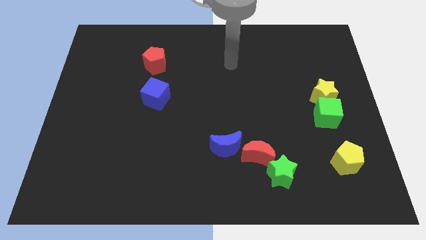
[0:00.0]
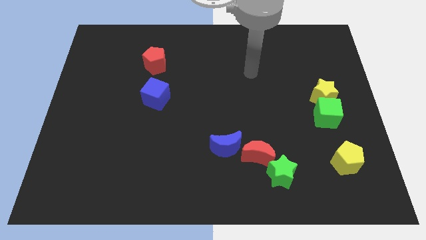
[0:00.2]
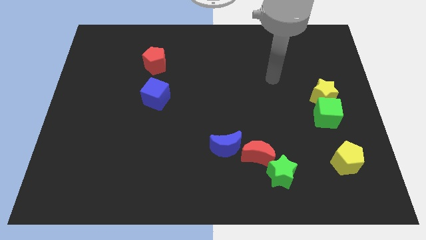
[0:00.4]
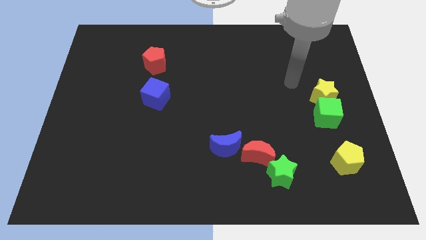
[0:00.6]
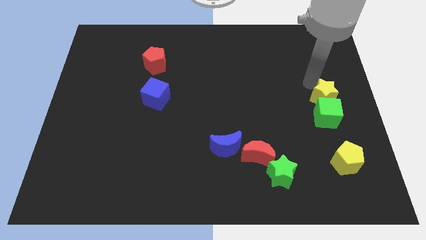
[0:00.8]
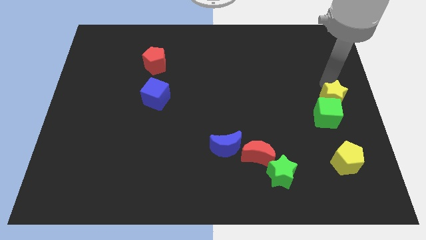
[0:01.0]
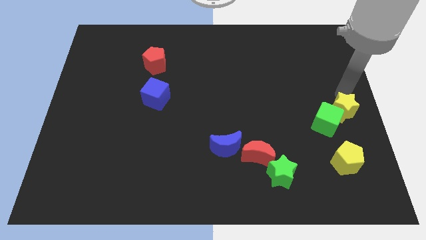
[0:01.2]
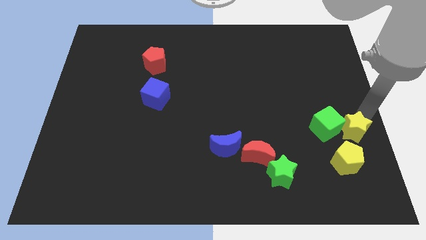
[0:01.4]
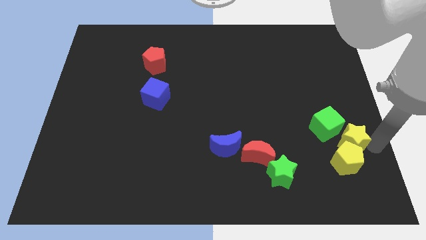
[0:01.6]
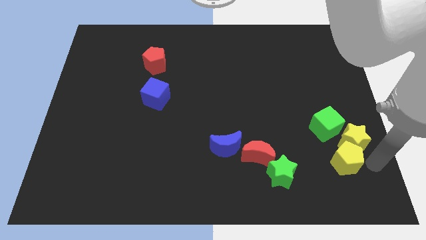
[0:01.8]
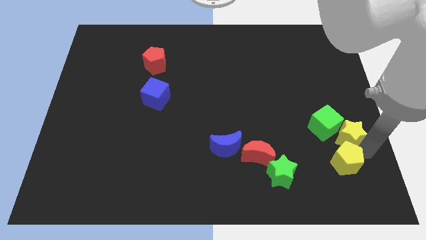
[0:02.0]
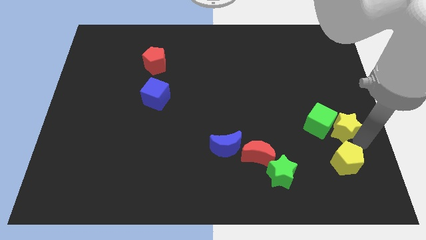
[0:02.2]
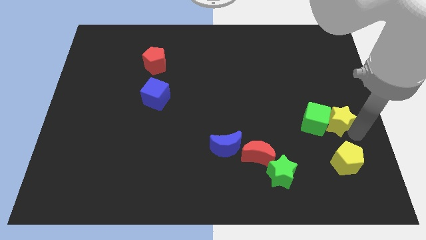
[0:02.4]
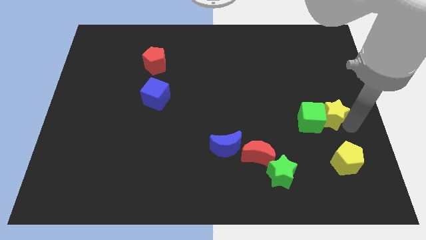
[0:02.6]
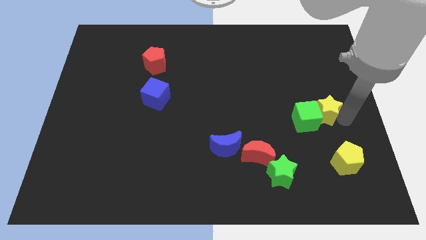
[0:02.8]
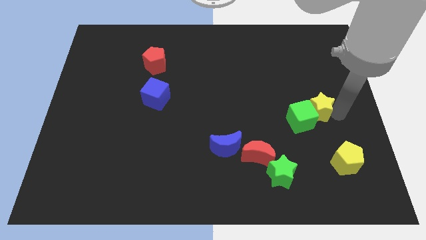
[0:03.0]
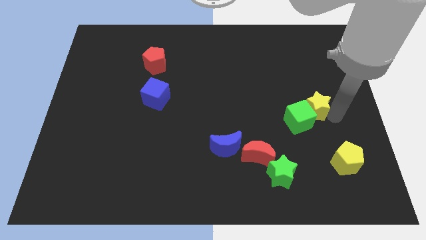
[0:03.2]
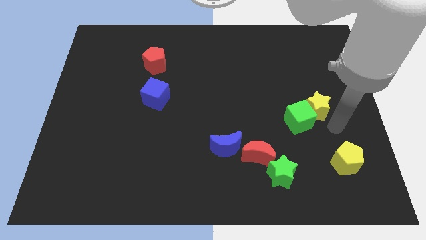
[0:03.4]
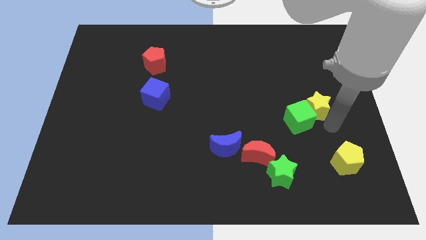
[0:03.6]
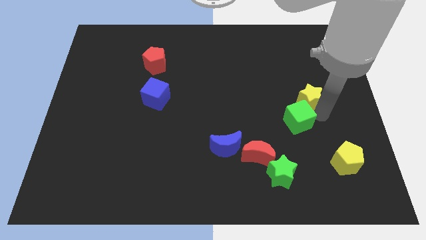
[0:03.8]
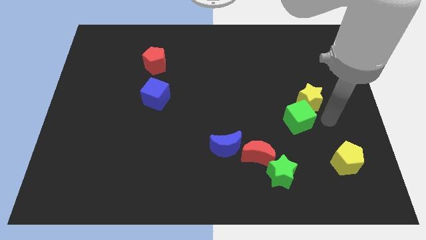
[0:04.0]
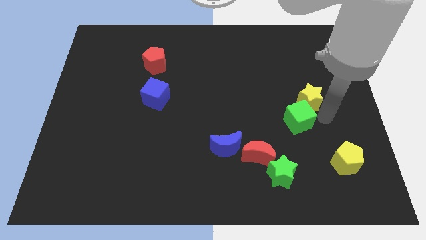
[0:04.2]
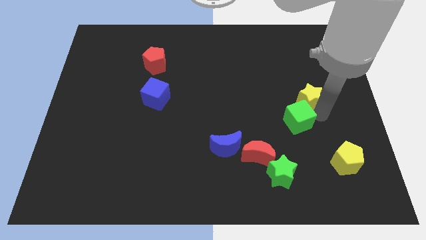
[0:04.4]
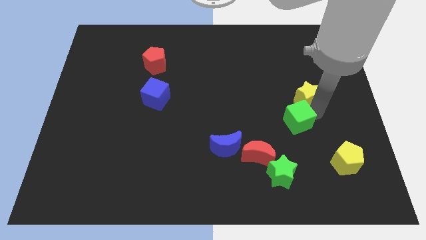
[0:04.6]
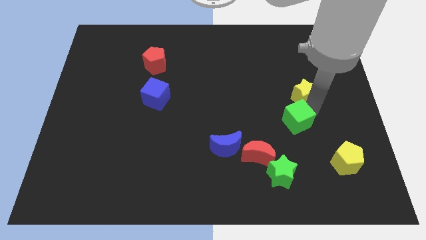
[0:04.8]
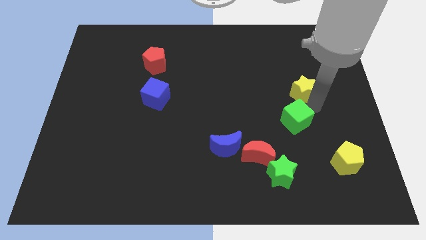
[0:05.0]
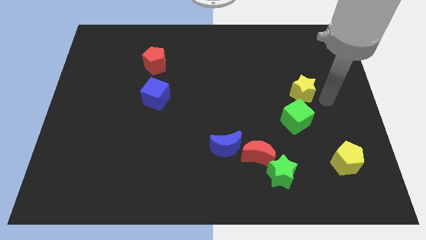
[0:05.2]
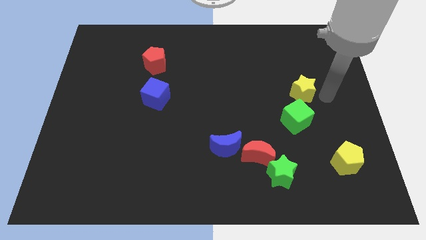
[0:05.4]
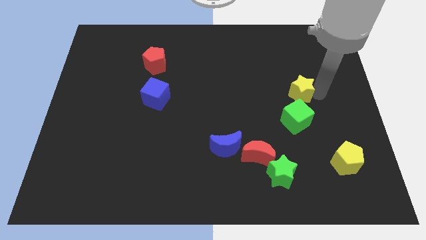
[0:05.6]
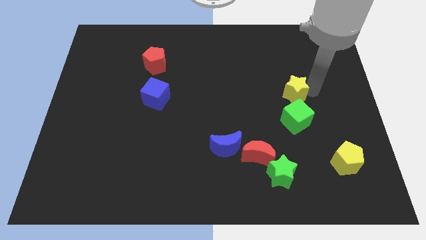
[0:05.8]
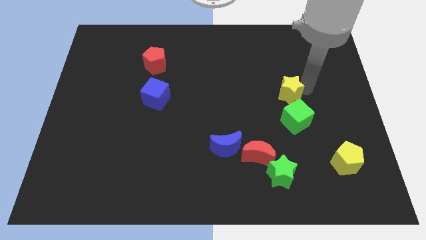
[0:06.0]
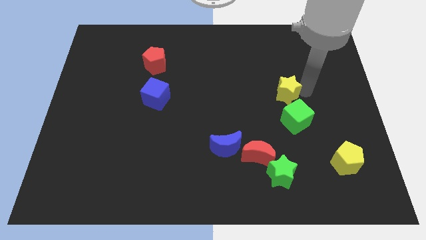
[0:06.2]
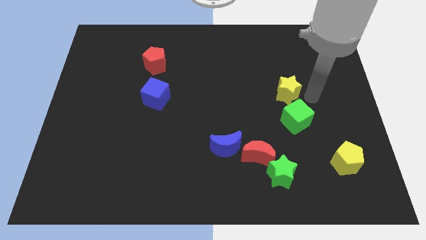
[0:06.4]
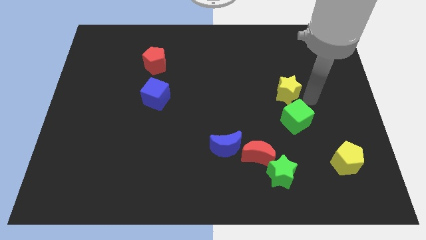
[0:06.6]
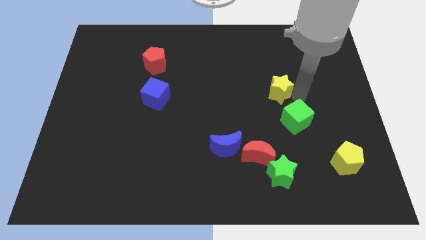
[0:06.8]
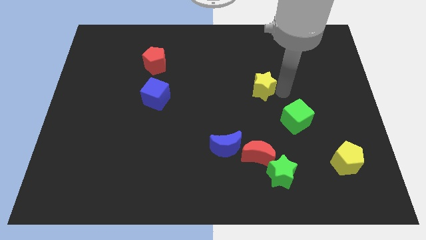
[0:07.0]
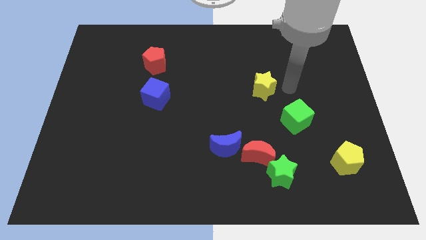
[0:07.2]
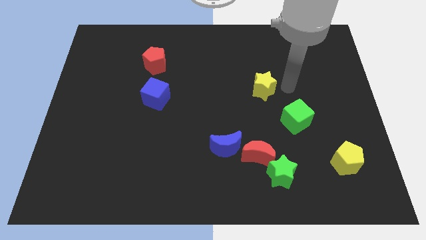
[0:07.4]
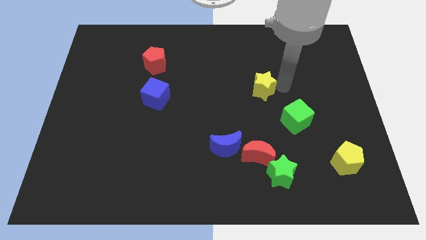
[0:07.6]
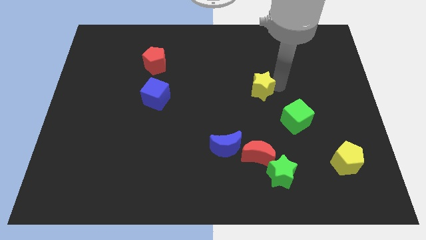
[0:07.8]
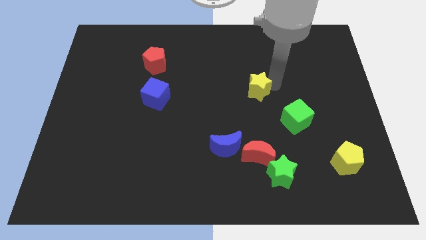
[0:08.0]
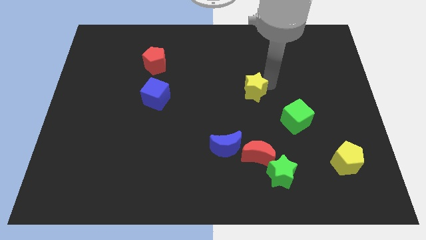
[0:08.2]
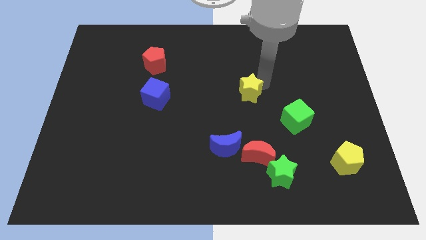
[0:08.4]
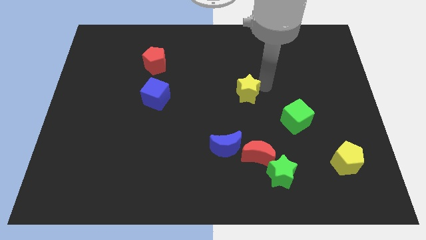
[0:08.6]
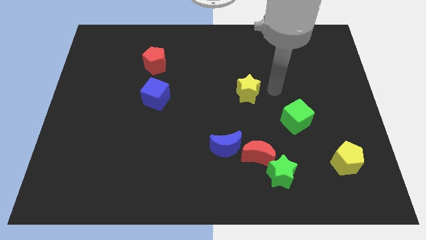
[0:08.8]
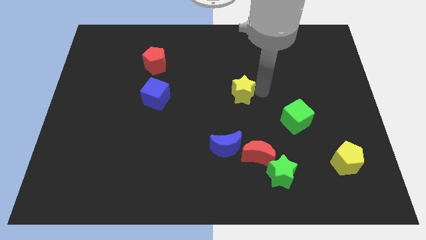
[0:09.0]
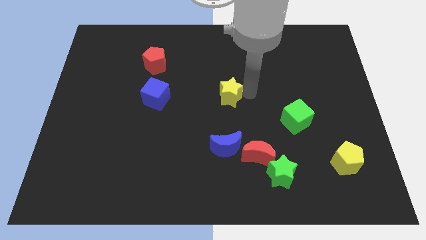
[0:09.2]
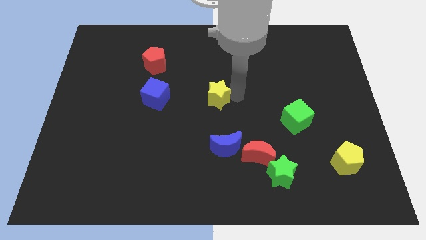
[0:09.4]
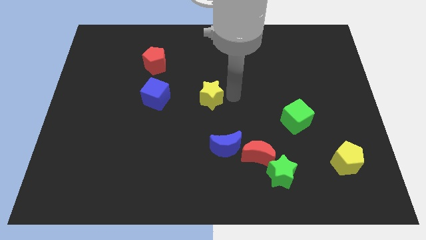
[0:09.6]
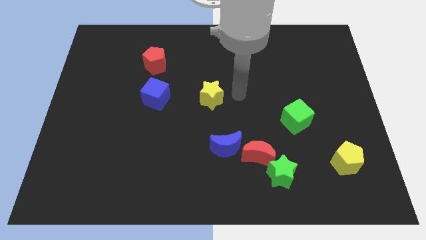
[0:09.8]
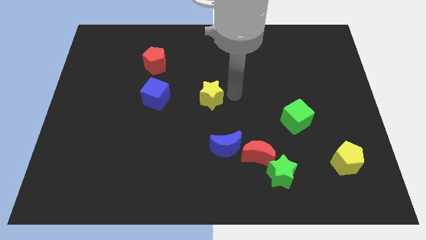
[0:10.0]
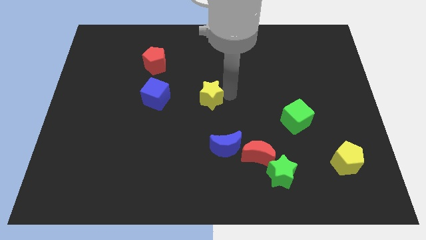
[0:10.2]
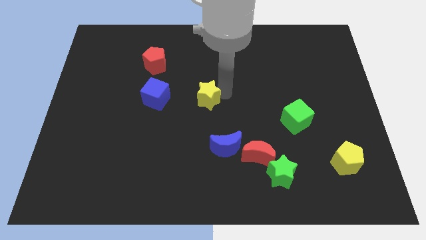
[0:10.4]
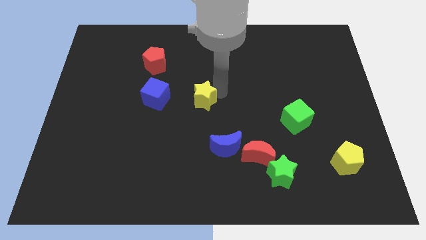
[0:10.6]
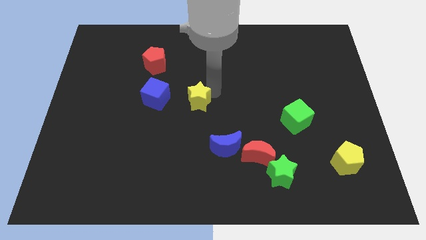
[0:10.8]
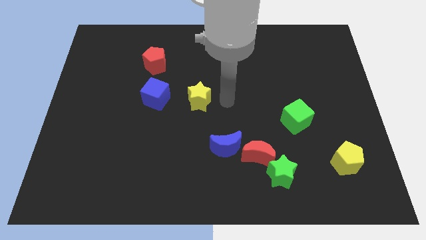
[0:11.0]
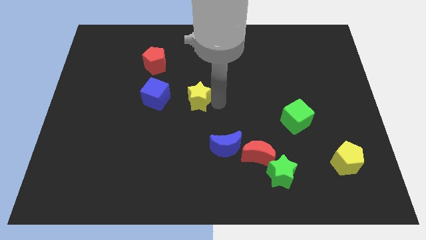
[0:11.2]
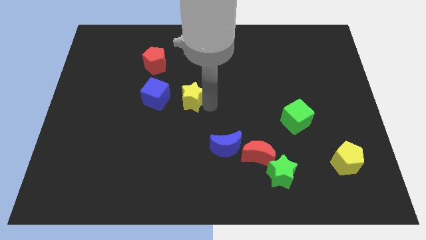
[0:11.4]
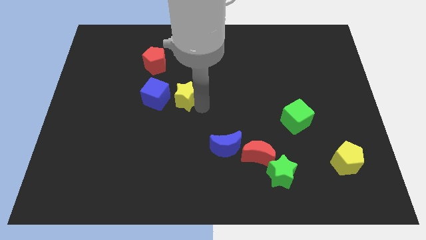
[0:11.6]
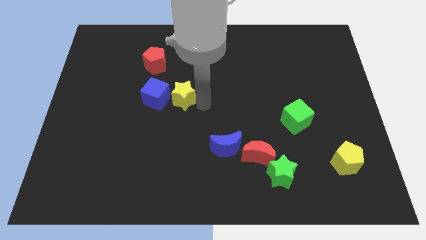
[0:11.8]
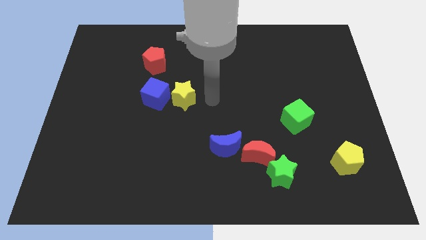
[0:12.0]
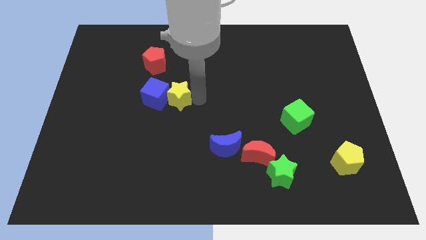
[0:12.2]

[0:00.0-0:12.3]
push the yellow star to the blue cube

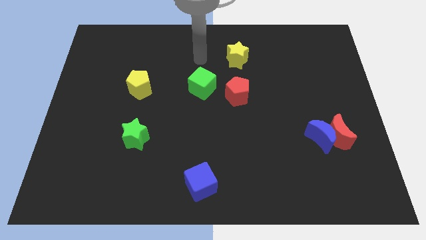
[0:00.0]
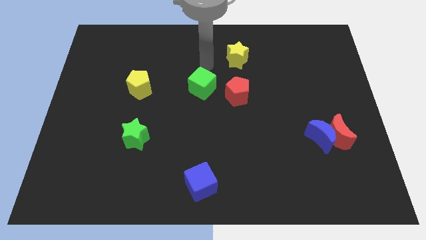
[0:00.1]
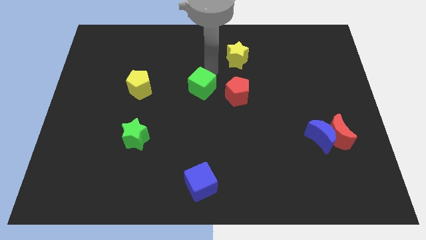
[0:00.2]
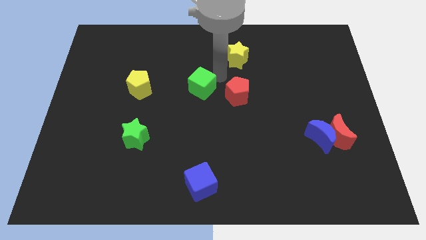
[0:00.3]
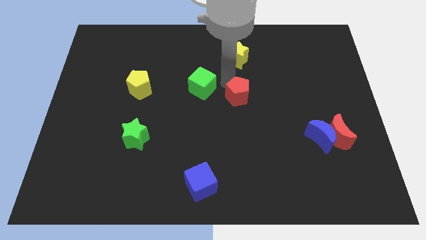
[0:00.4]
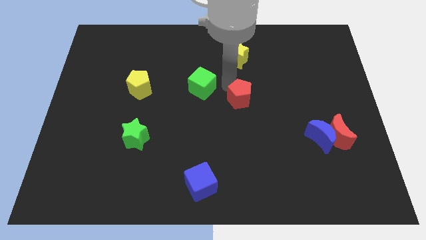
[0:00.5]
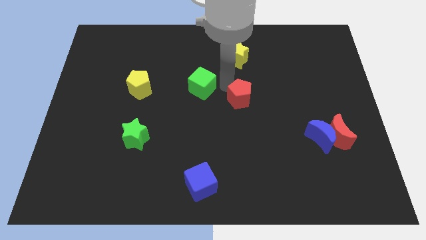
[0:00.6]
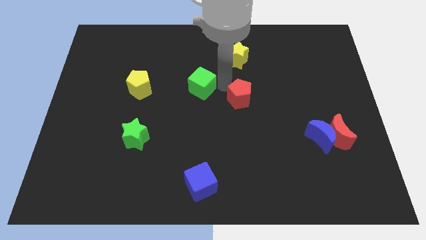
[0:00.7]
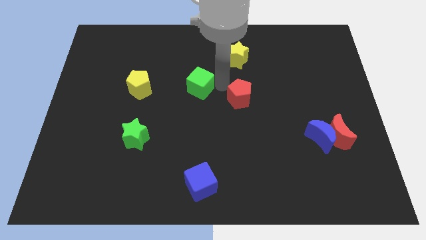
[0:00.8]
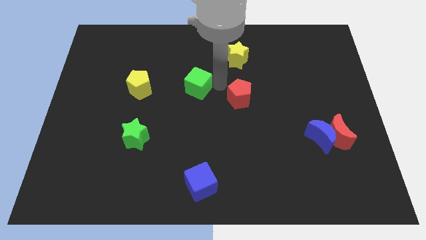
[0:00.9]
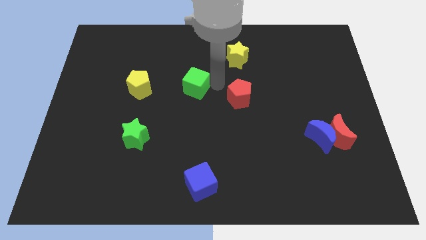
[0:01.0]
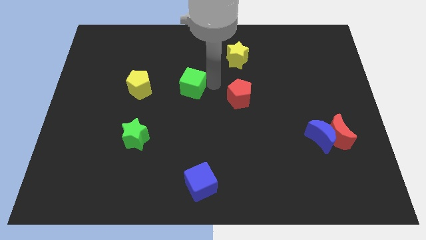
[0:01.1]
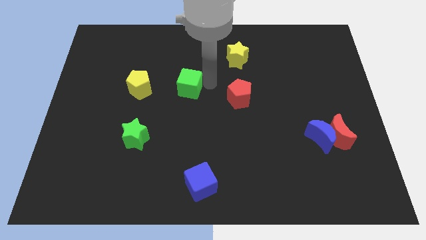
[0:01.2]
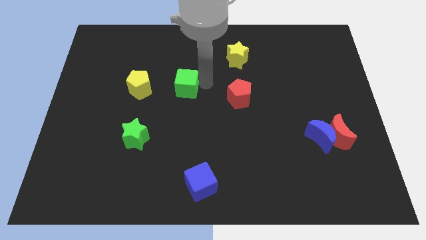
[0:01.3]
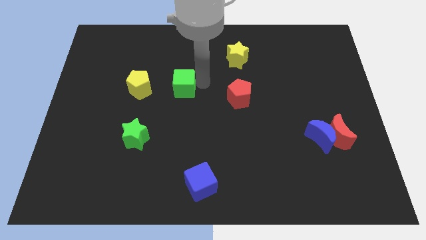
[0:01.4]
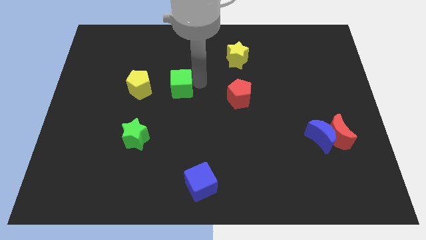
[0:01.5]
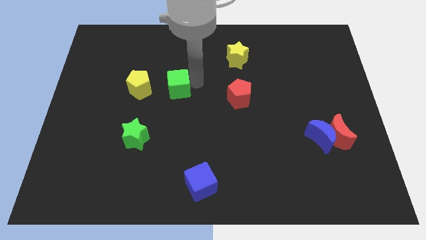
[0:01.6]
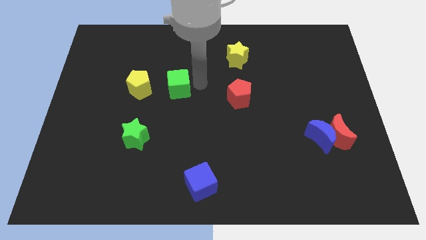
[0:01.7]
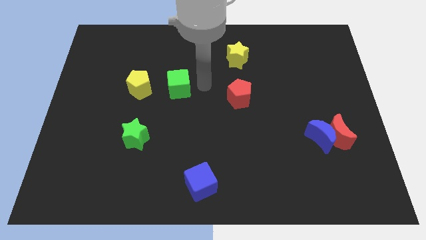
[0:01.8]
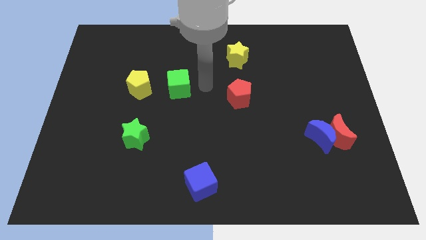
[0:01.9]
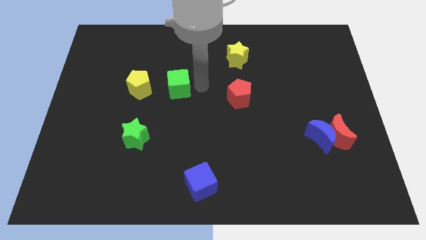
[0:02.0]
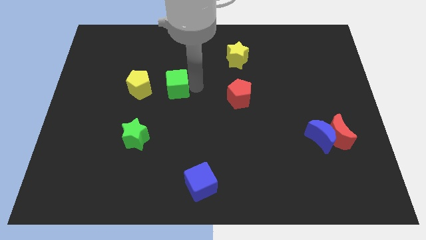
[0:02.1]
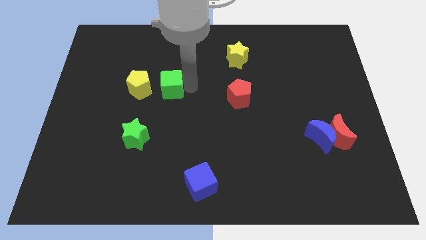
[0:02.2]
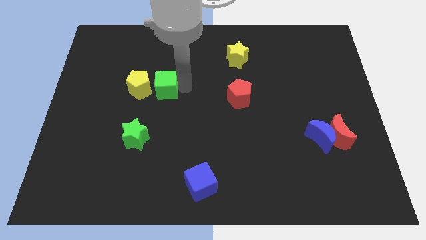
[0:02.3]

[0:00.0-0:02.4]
push the green cube to the yellow pentagon
